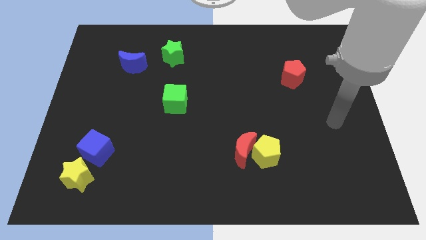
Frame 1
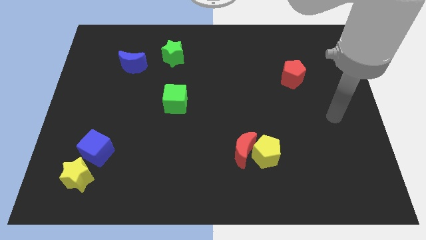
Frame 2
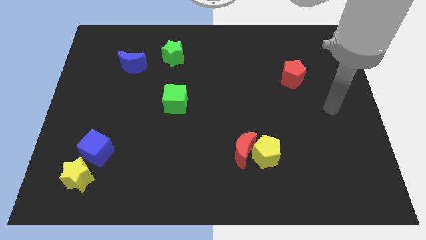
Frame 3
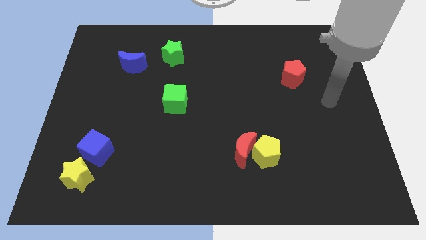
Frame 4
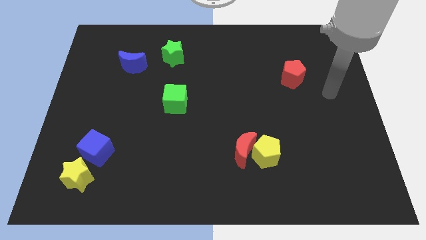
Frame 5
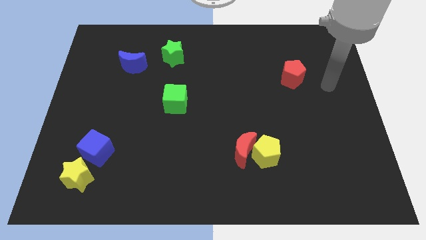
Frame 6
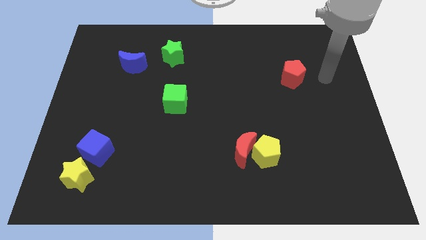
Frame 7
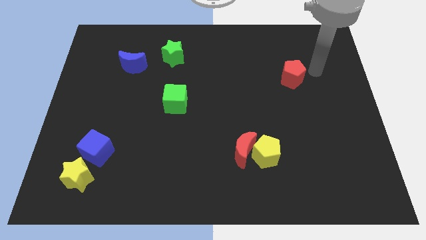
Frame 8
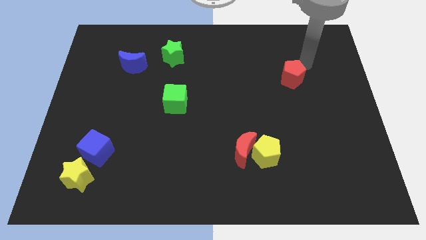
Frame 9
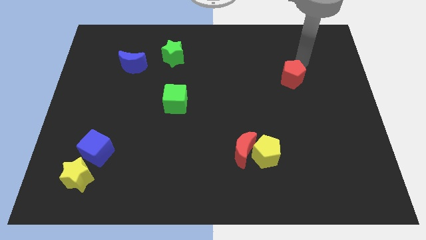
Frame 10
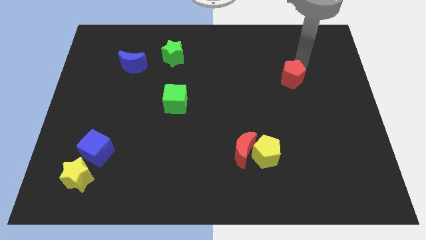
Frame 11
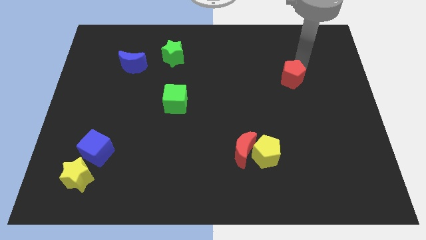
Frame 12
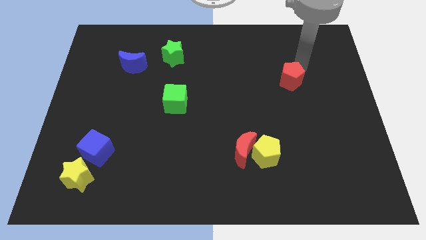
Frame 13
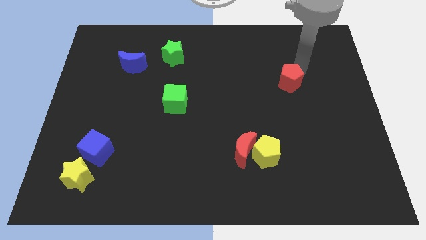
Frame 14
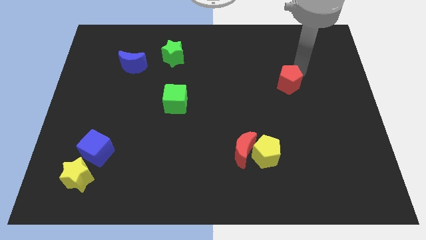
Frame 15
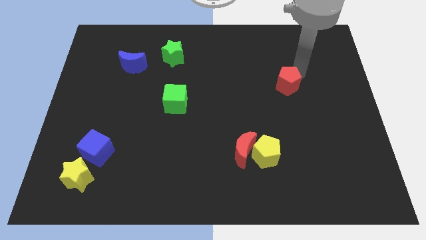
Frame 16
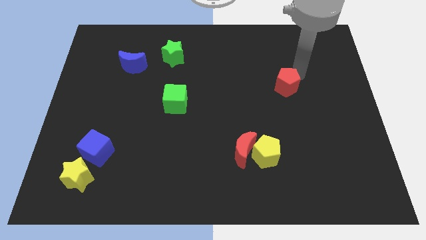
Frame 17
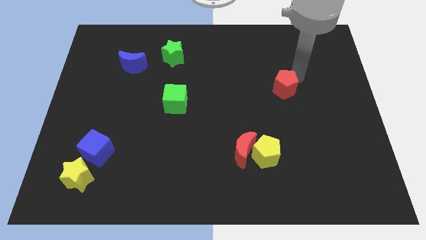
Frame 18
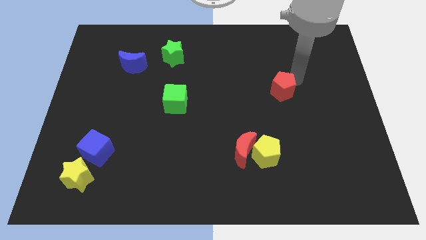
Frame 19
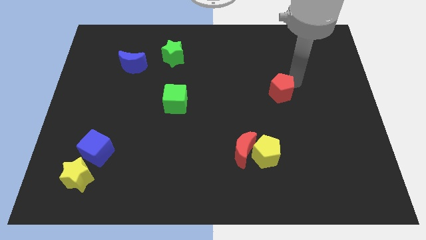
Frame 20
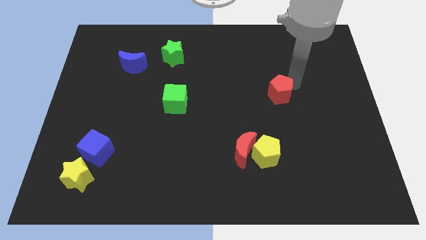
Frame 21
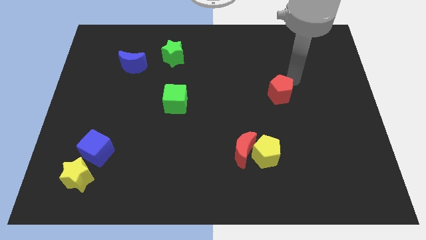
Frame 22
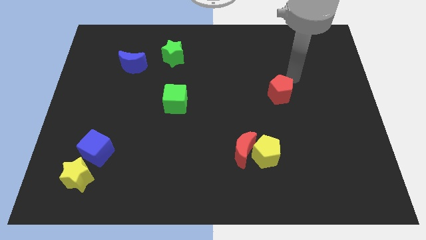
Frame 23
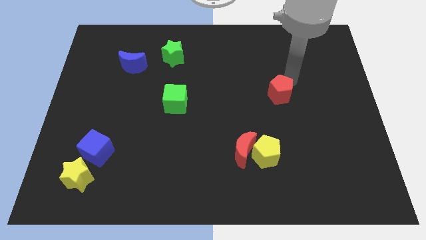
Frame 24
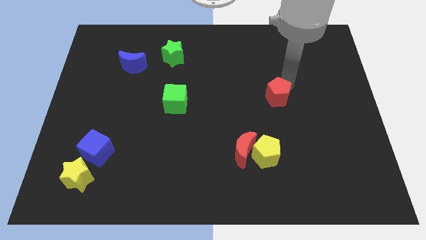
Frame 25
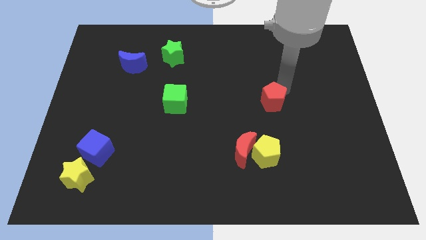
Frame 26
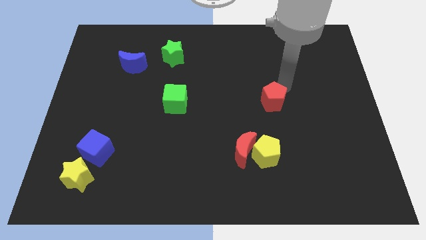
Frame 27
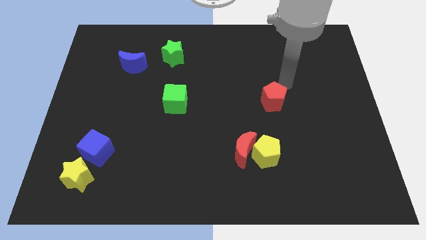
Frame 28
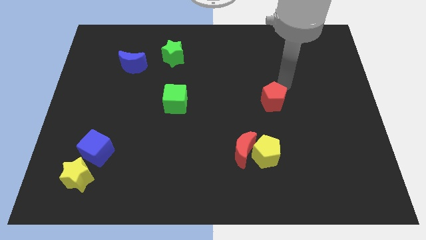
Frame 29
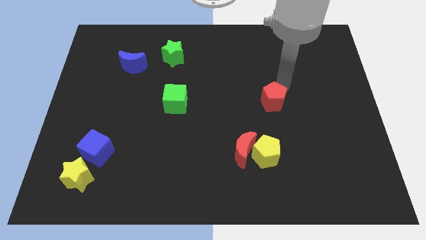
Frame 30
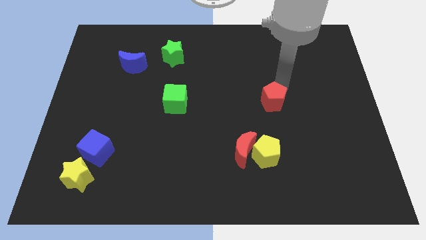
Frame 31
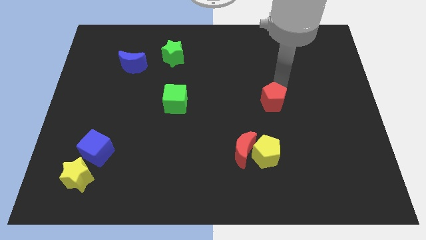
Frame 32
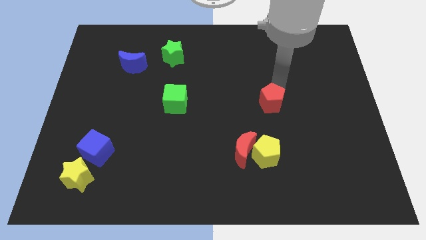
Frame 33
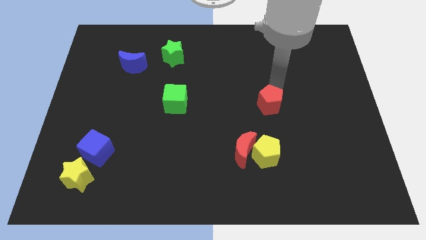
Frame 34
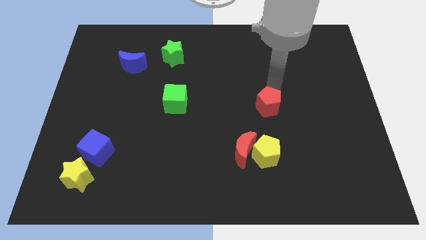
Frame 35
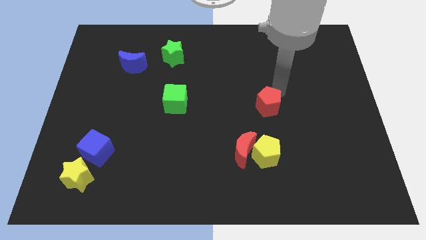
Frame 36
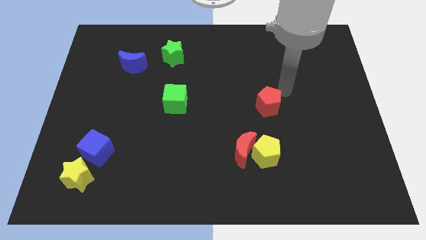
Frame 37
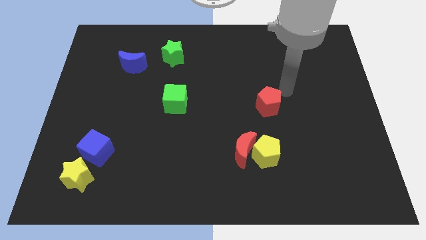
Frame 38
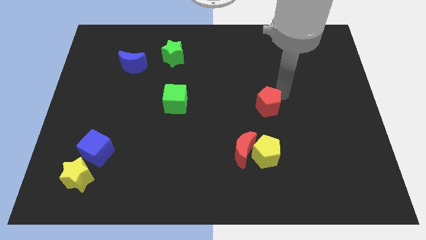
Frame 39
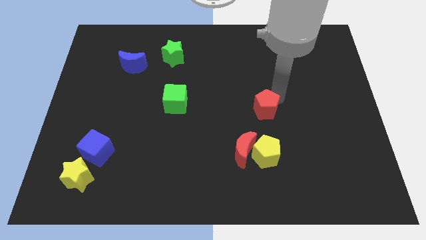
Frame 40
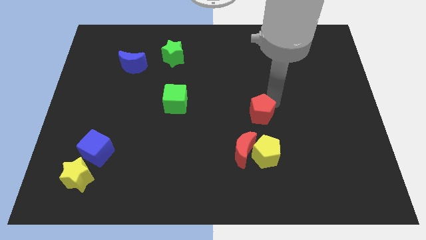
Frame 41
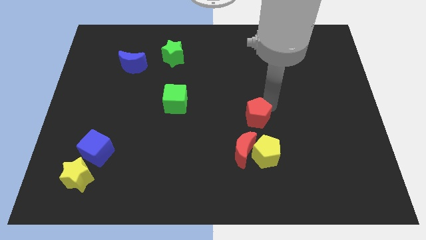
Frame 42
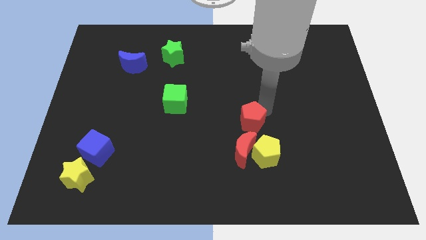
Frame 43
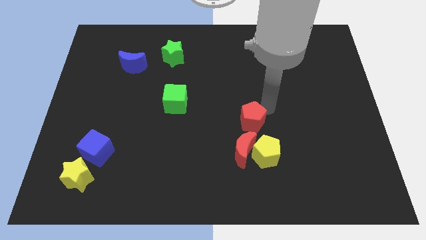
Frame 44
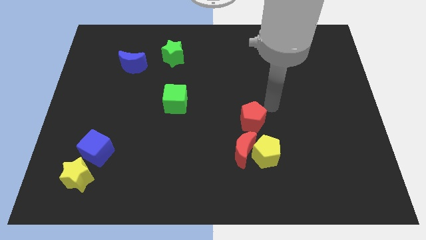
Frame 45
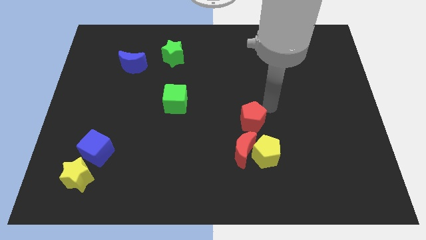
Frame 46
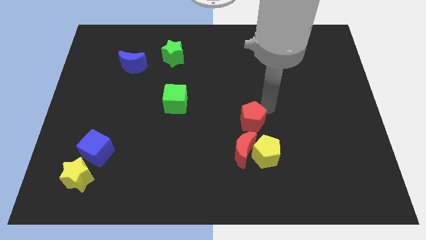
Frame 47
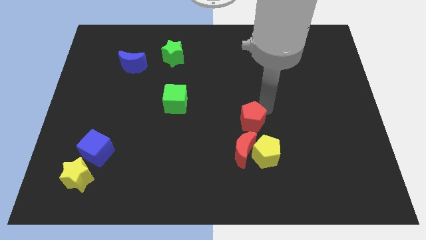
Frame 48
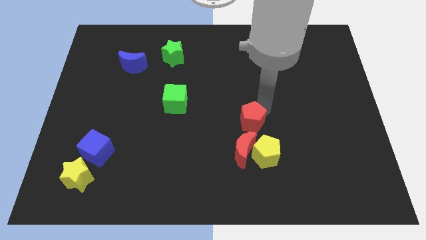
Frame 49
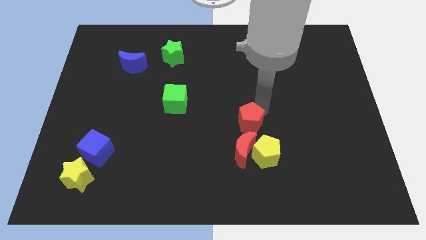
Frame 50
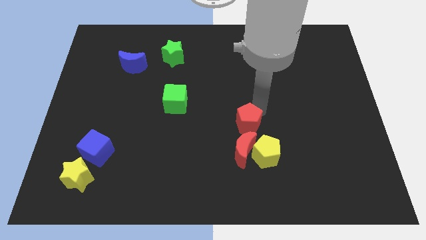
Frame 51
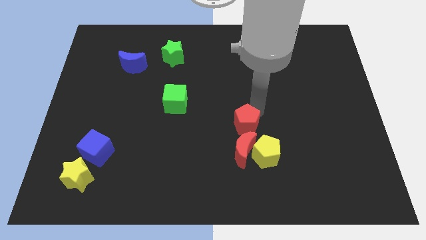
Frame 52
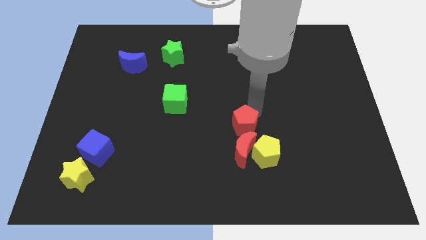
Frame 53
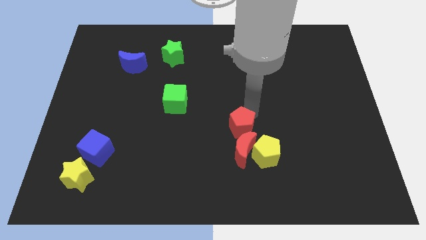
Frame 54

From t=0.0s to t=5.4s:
move the red pentagon diagonally down and to the left

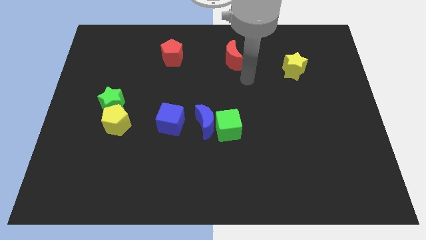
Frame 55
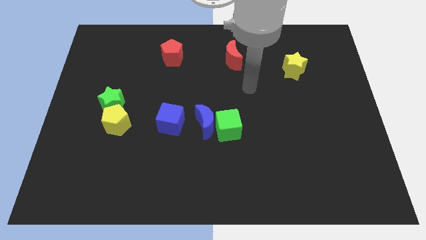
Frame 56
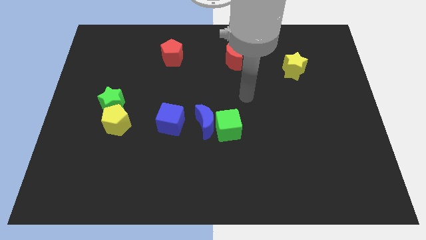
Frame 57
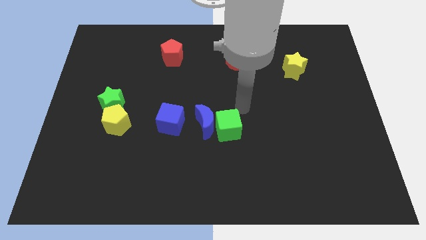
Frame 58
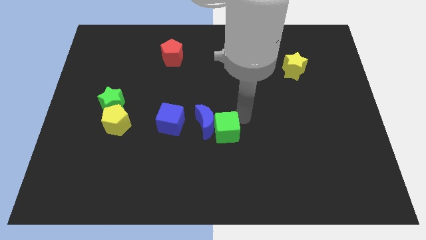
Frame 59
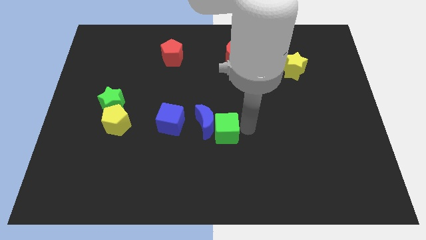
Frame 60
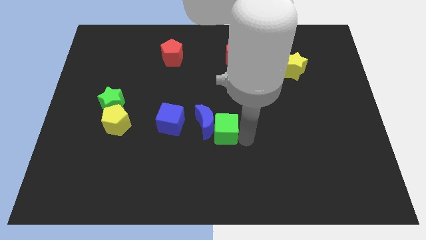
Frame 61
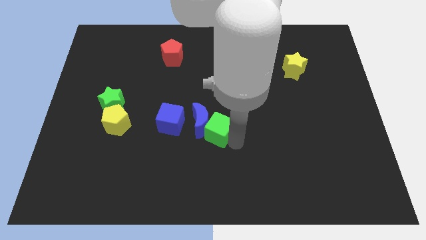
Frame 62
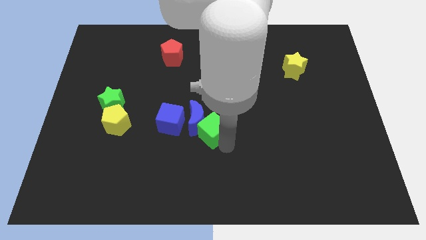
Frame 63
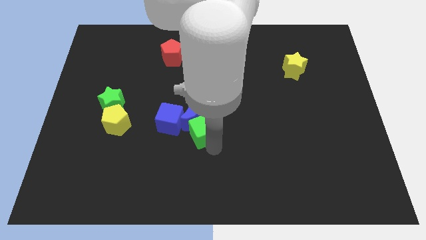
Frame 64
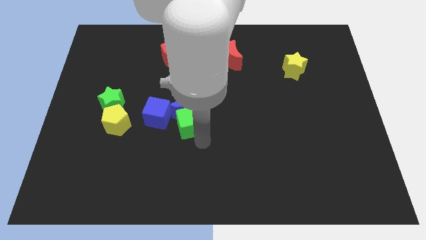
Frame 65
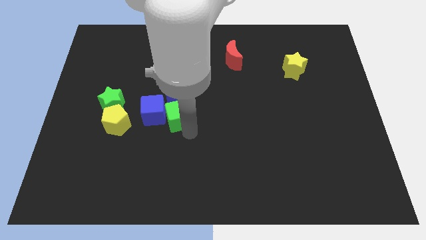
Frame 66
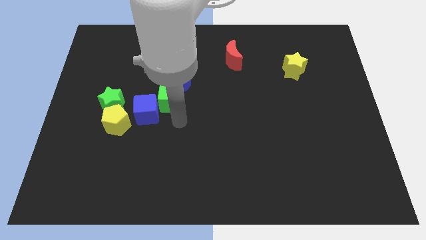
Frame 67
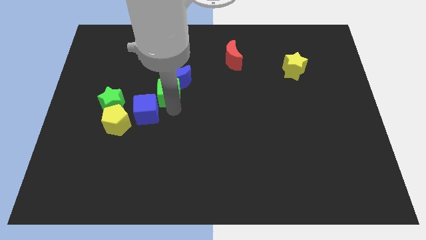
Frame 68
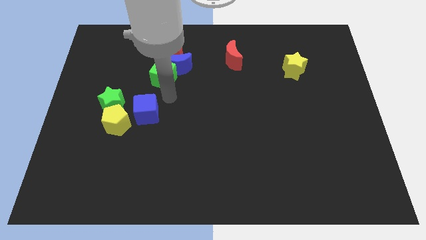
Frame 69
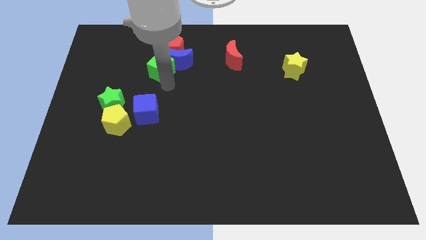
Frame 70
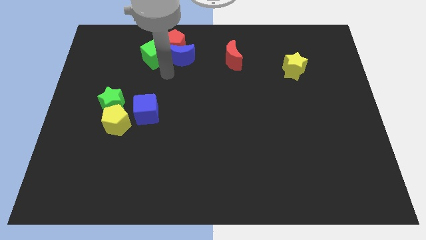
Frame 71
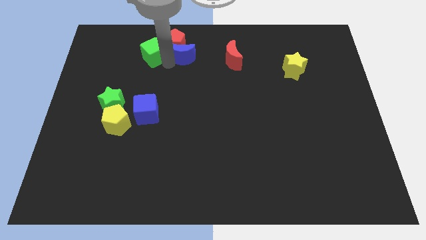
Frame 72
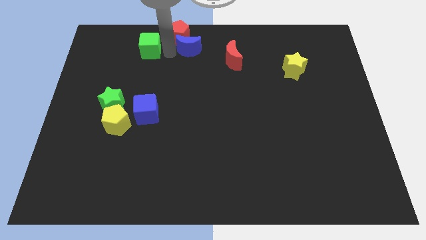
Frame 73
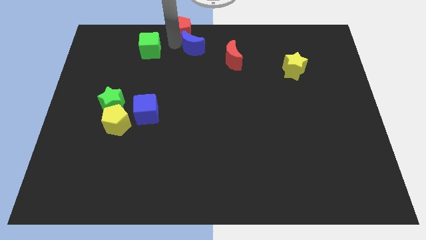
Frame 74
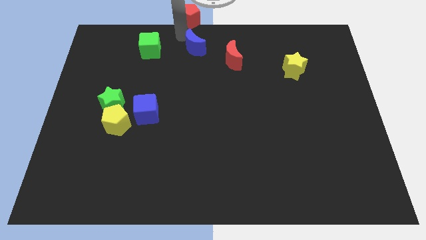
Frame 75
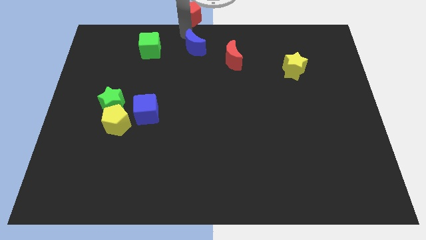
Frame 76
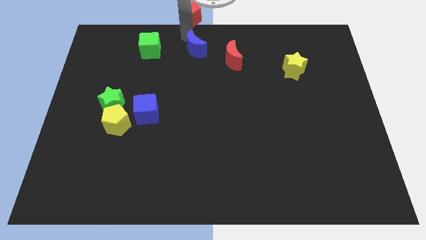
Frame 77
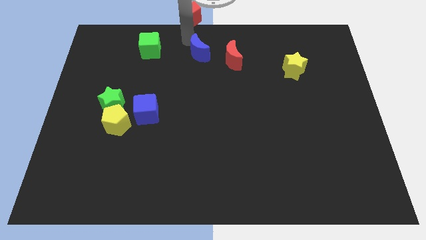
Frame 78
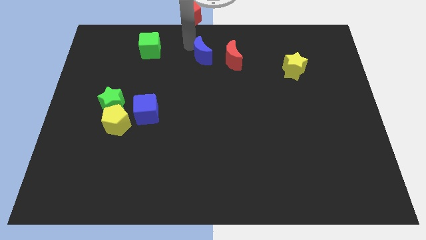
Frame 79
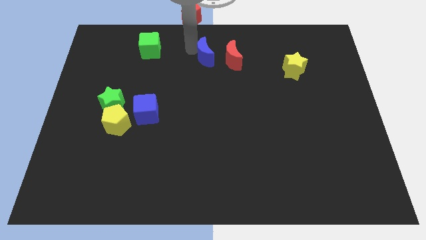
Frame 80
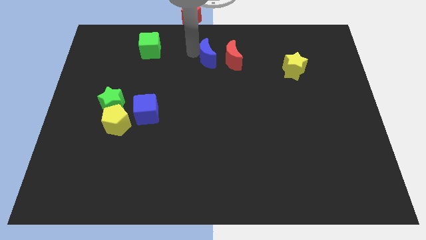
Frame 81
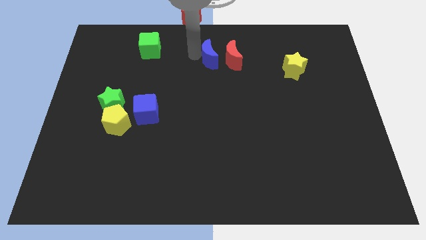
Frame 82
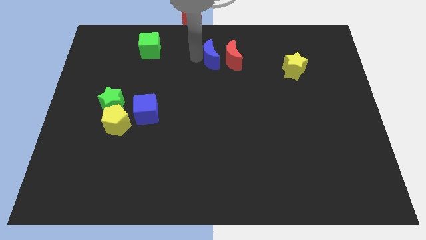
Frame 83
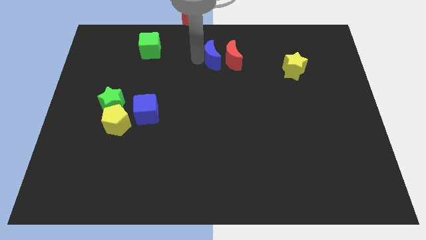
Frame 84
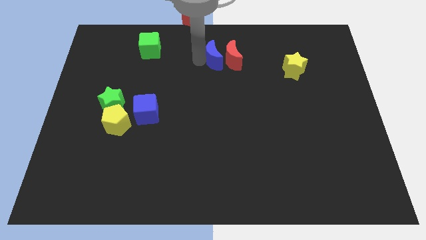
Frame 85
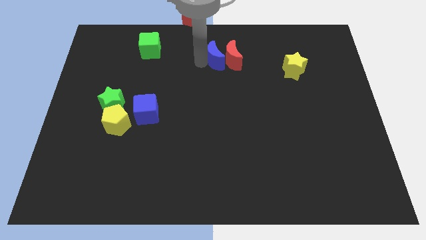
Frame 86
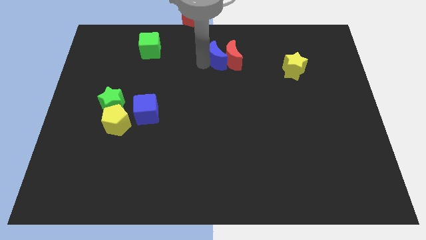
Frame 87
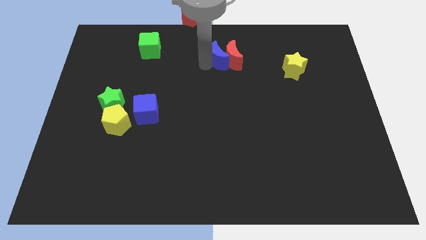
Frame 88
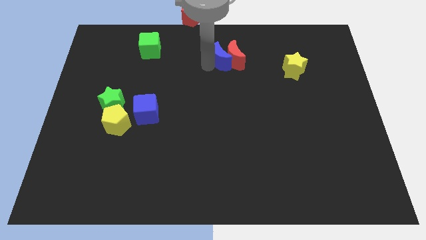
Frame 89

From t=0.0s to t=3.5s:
move the blue moon up and to the right diagonally a little
